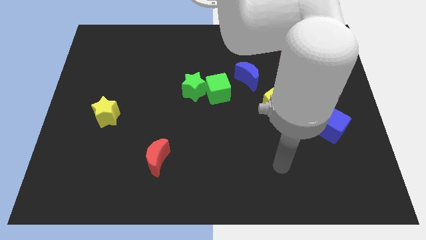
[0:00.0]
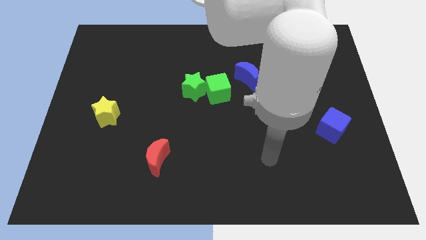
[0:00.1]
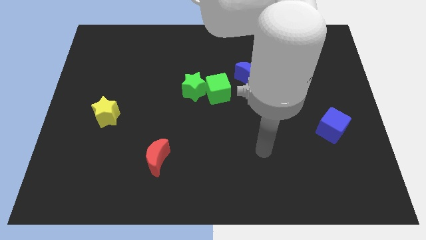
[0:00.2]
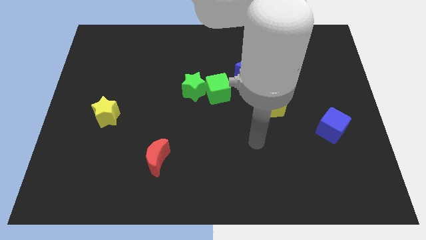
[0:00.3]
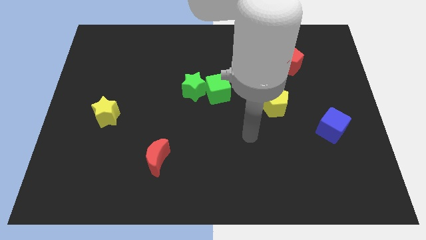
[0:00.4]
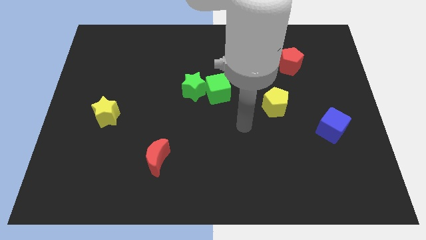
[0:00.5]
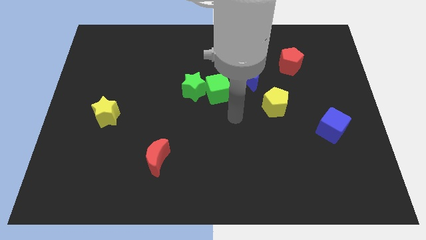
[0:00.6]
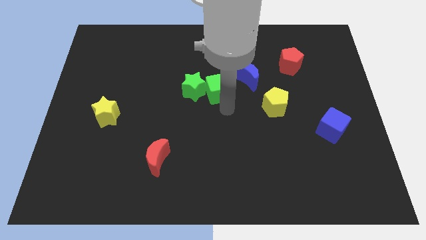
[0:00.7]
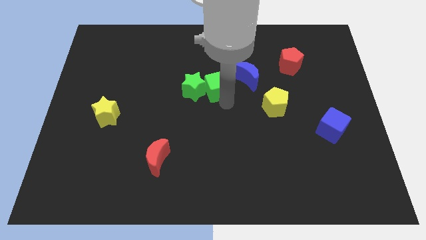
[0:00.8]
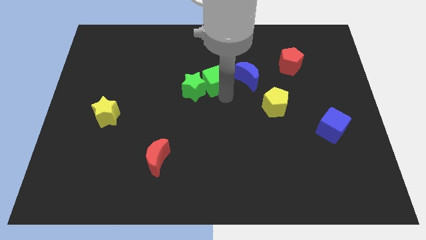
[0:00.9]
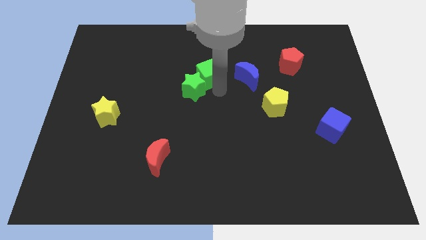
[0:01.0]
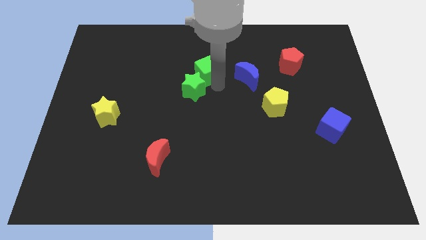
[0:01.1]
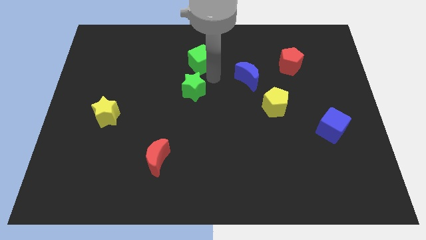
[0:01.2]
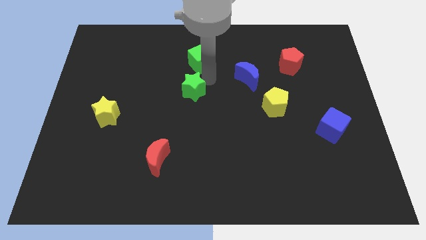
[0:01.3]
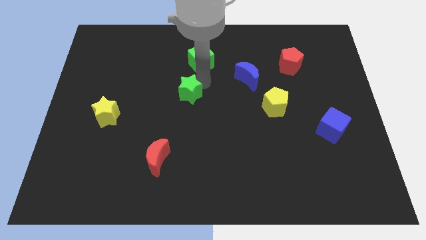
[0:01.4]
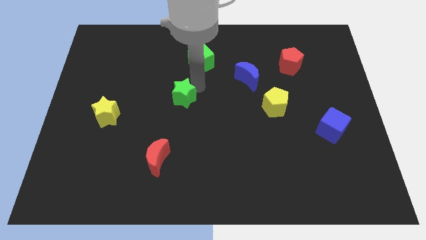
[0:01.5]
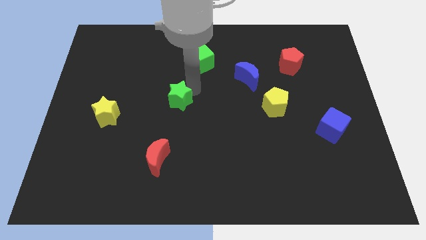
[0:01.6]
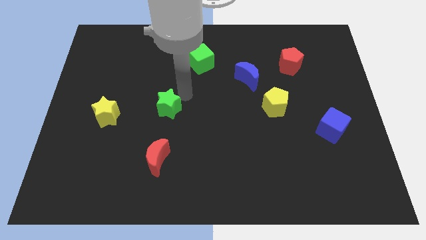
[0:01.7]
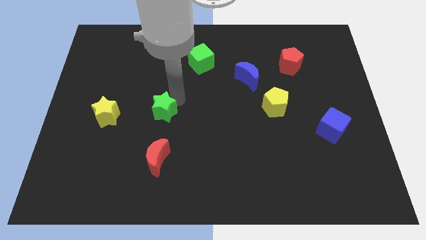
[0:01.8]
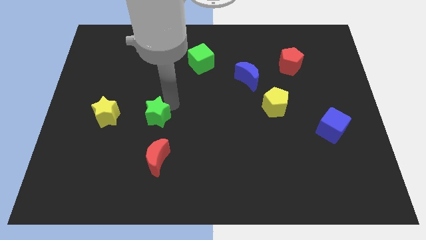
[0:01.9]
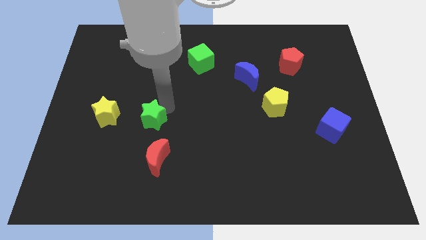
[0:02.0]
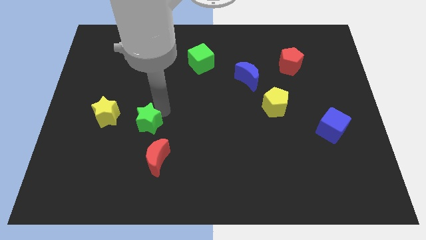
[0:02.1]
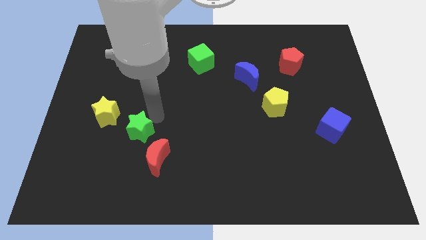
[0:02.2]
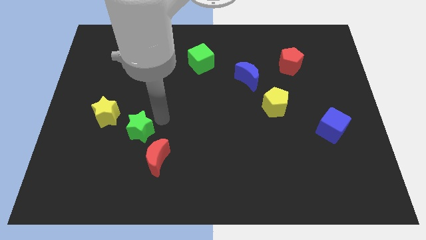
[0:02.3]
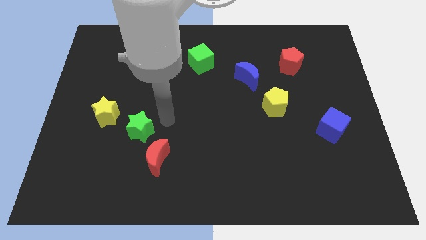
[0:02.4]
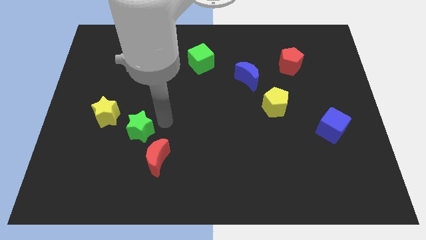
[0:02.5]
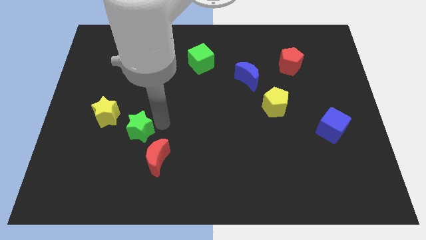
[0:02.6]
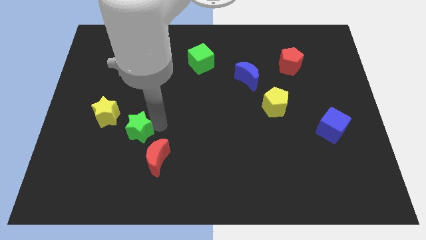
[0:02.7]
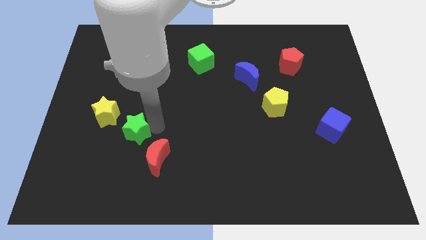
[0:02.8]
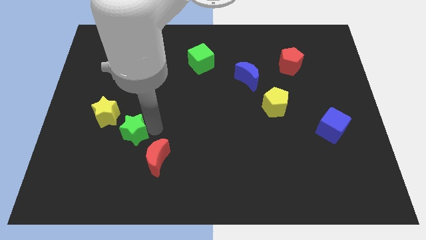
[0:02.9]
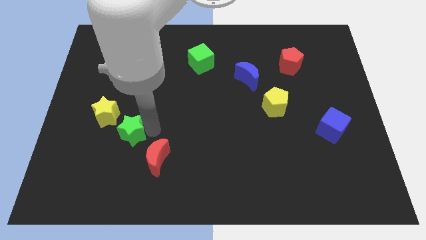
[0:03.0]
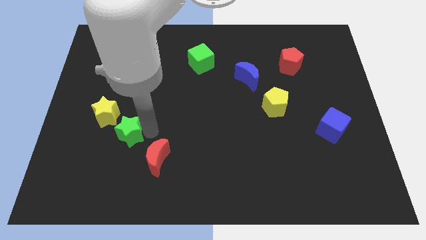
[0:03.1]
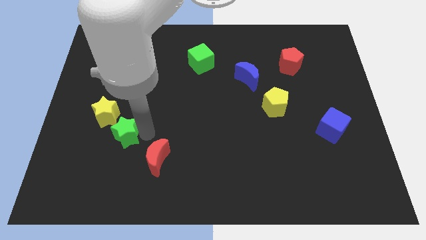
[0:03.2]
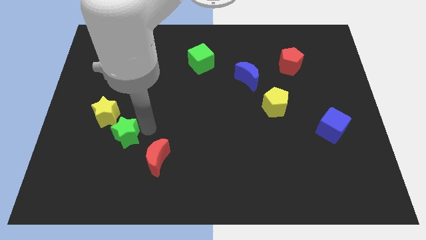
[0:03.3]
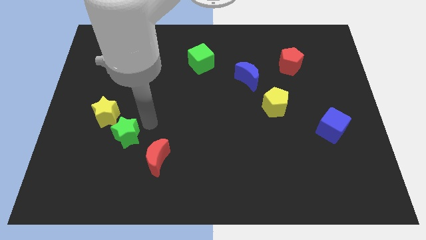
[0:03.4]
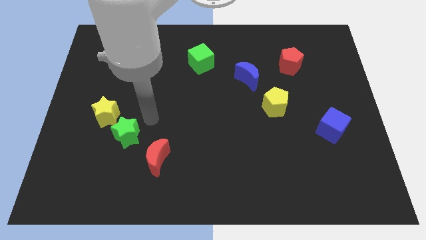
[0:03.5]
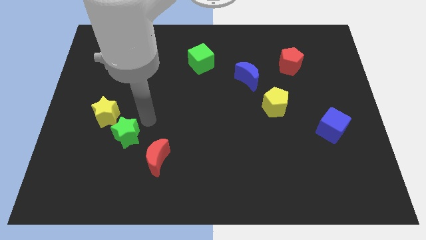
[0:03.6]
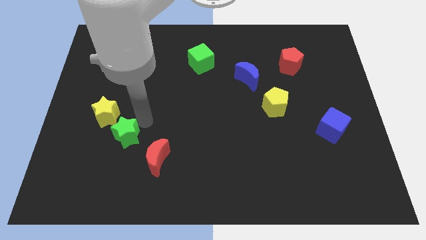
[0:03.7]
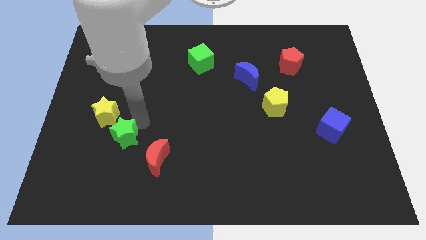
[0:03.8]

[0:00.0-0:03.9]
slide the green star downwards and then to the left

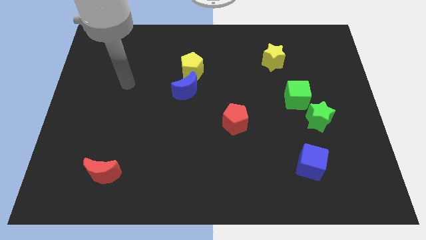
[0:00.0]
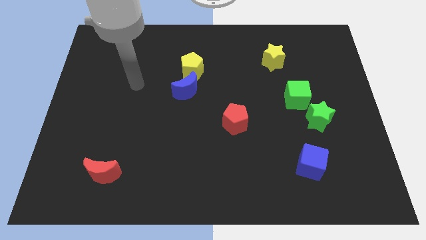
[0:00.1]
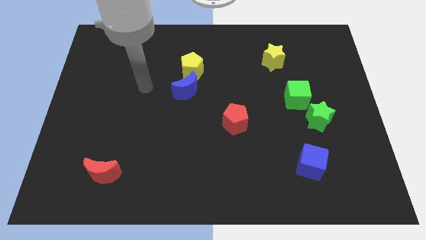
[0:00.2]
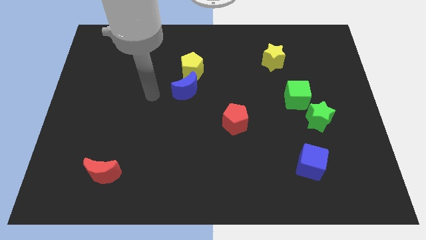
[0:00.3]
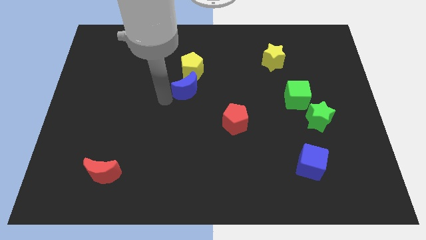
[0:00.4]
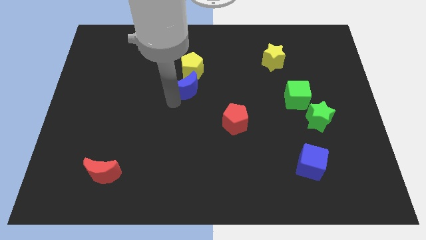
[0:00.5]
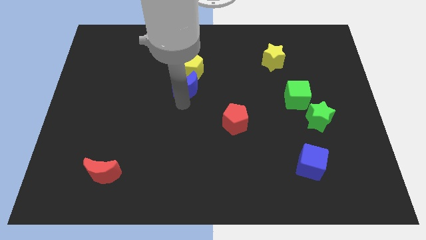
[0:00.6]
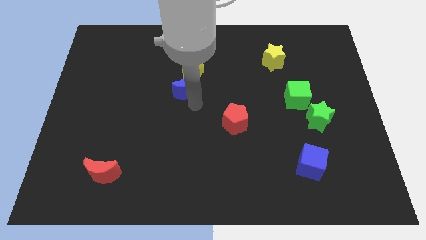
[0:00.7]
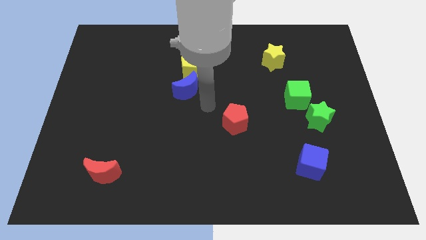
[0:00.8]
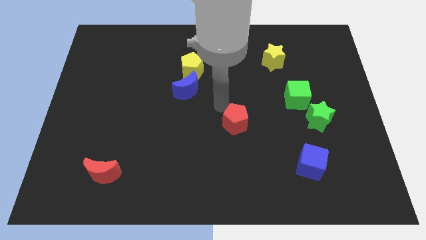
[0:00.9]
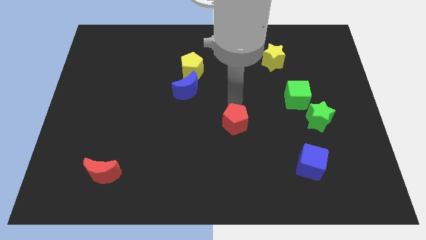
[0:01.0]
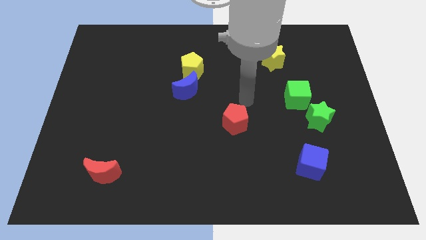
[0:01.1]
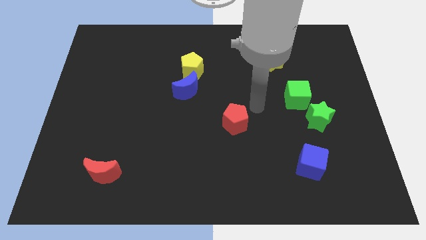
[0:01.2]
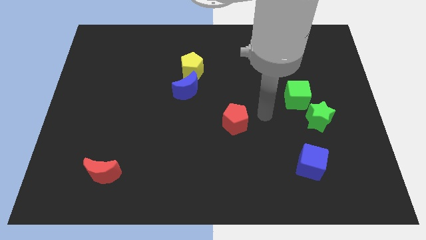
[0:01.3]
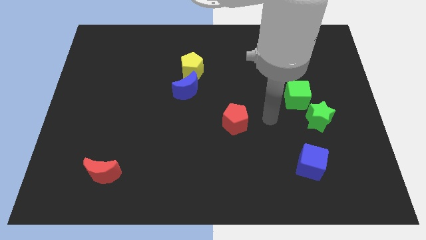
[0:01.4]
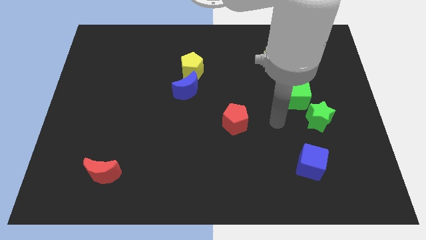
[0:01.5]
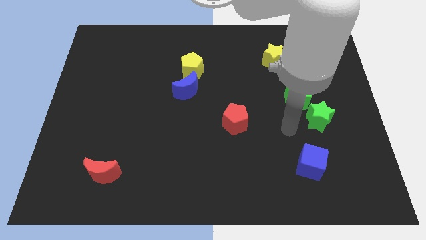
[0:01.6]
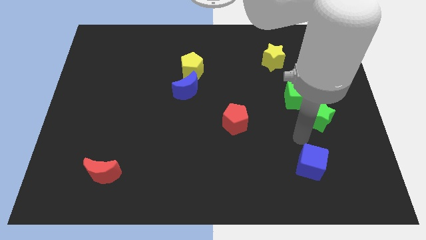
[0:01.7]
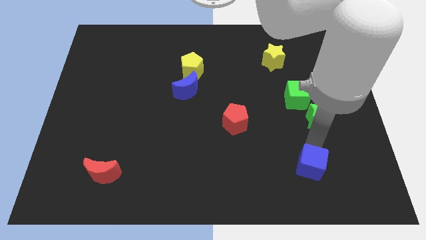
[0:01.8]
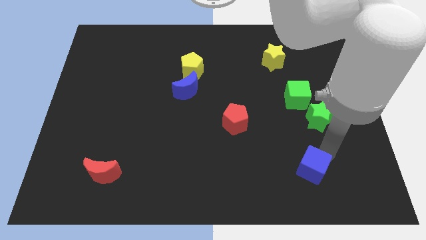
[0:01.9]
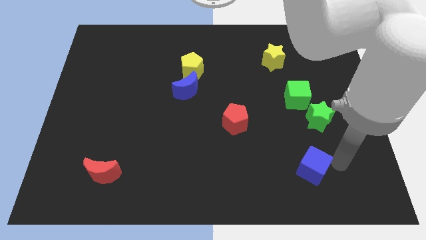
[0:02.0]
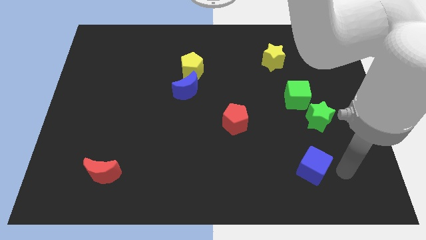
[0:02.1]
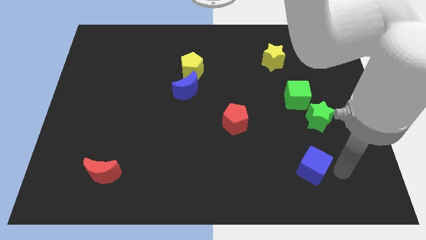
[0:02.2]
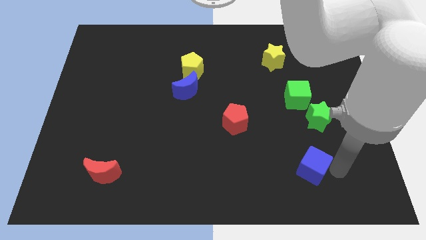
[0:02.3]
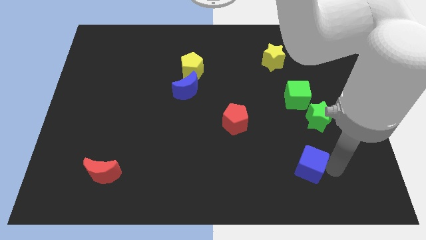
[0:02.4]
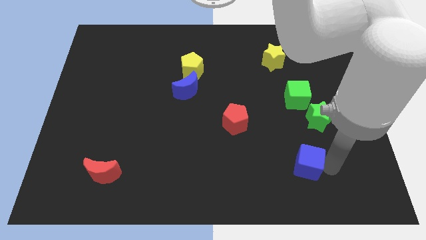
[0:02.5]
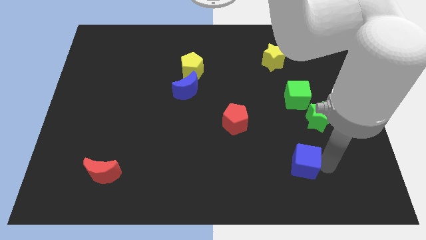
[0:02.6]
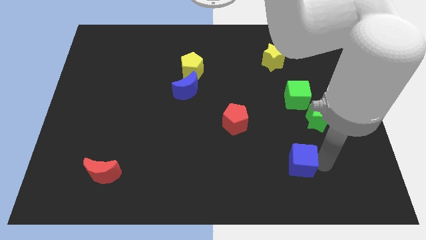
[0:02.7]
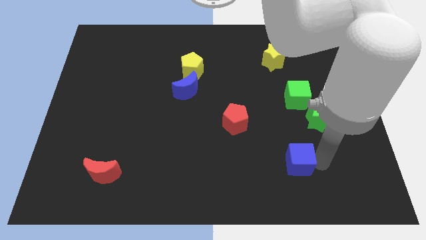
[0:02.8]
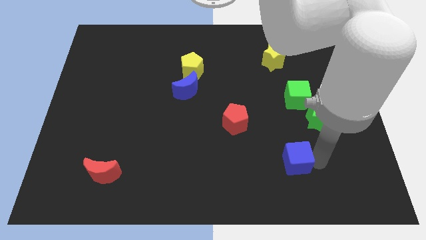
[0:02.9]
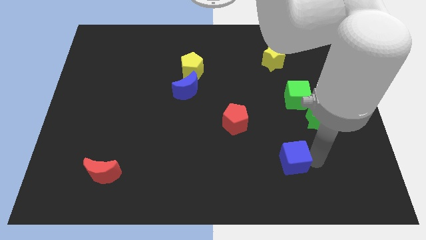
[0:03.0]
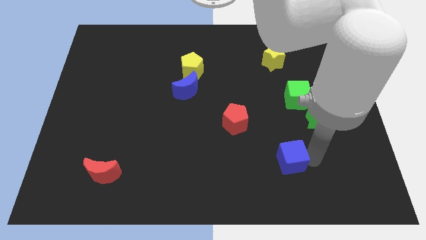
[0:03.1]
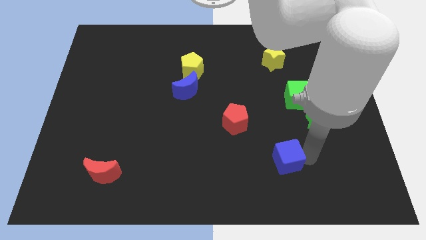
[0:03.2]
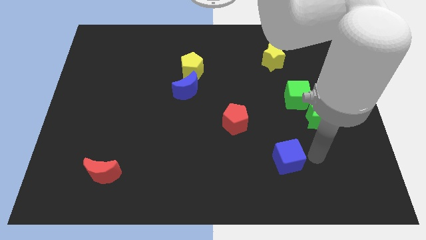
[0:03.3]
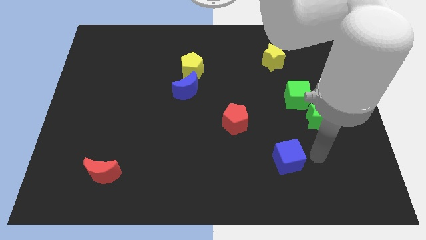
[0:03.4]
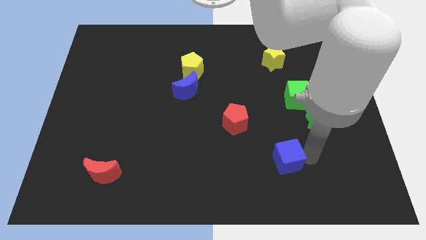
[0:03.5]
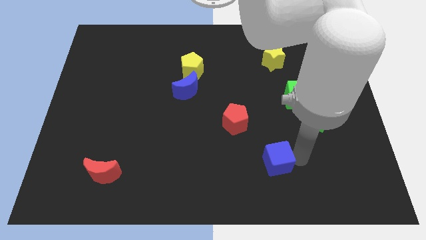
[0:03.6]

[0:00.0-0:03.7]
slide the blue cube a bit to the left

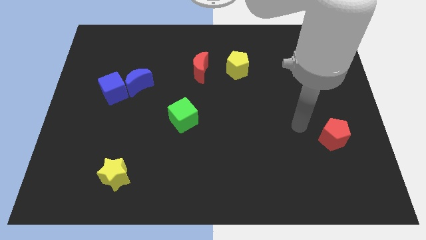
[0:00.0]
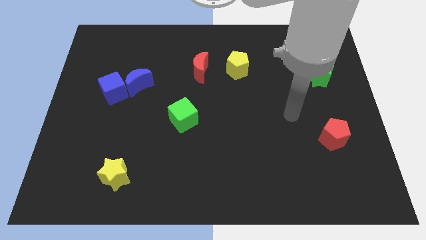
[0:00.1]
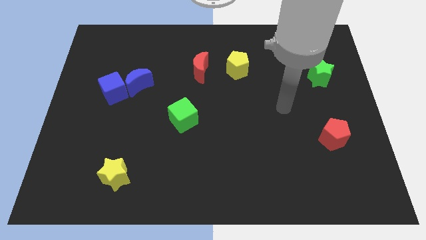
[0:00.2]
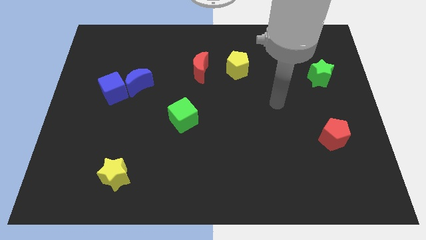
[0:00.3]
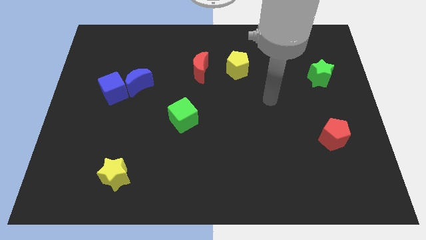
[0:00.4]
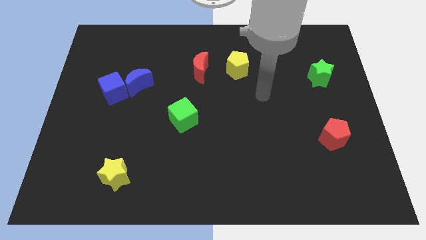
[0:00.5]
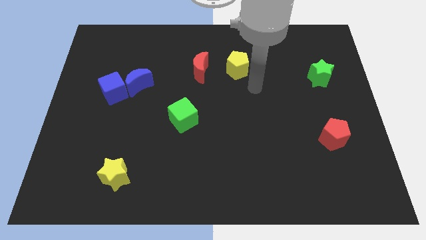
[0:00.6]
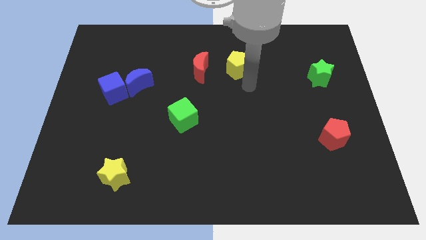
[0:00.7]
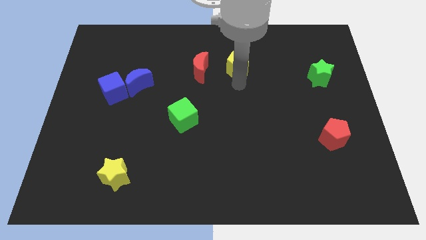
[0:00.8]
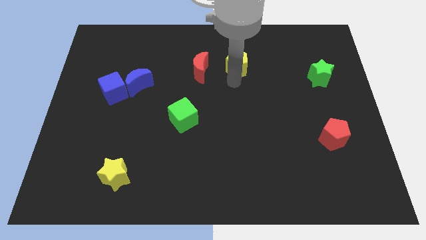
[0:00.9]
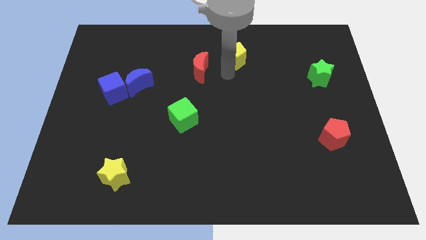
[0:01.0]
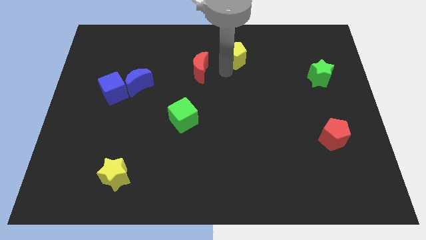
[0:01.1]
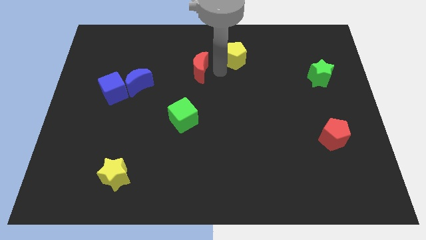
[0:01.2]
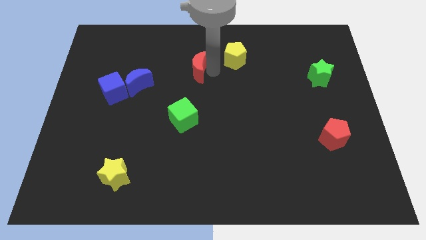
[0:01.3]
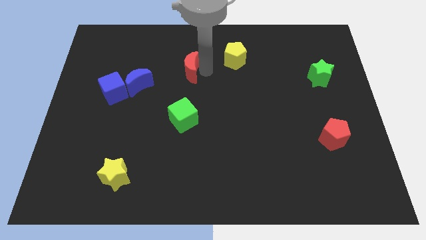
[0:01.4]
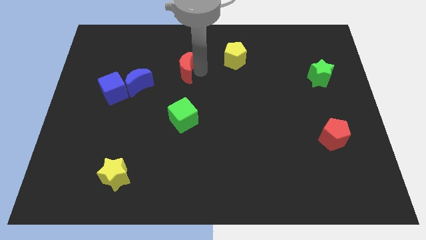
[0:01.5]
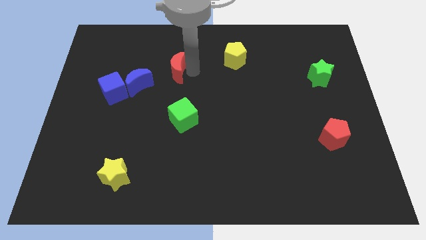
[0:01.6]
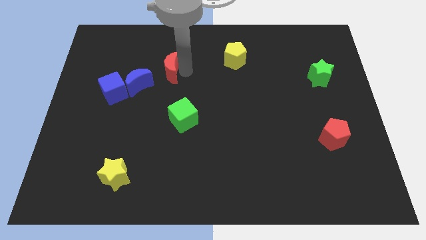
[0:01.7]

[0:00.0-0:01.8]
slightly move the red moon left
